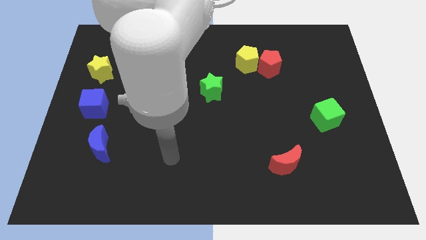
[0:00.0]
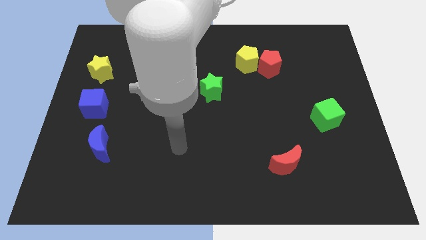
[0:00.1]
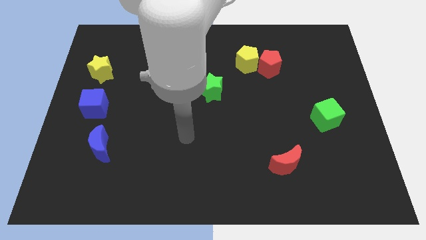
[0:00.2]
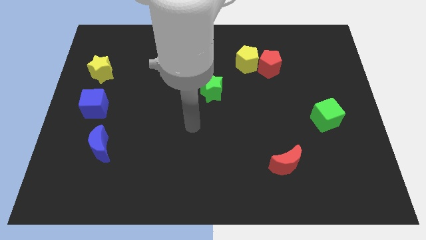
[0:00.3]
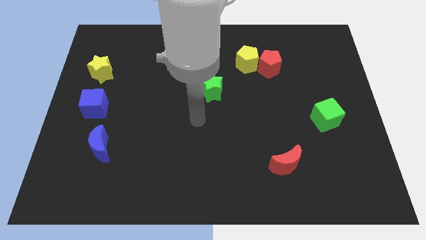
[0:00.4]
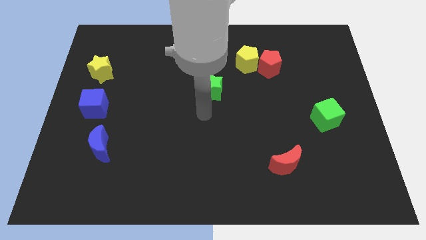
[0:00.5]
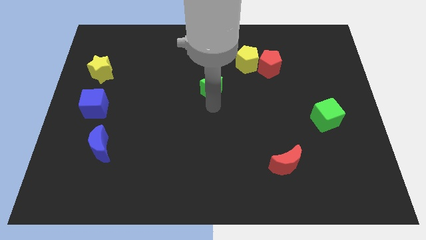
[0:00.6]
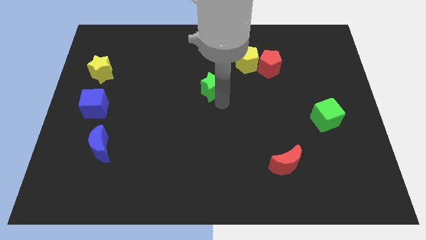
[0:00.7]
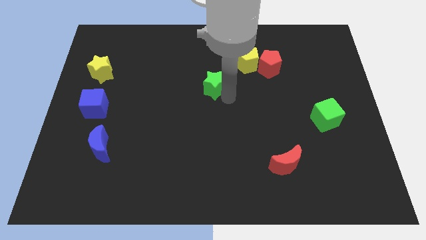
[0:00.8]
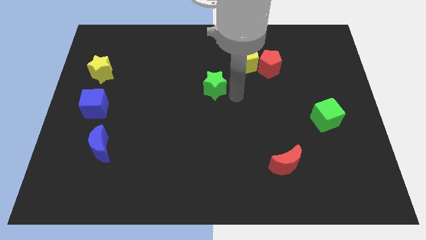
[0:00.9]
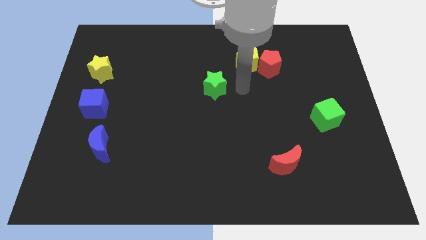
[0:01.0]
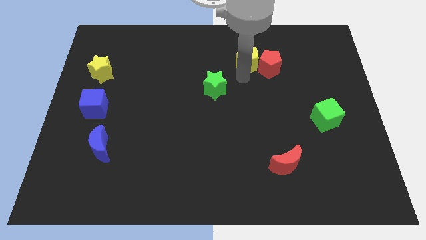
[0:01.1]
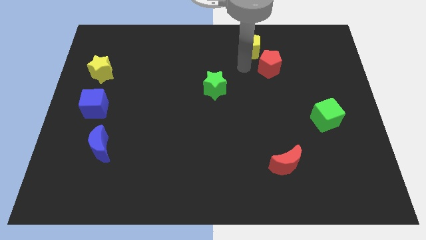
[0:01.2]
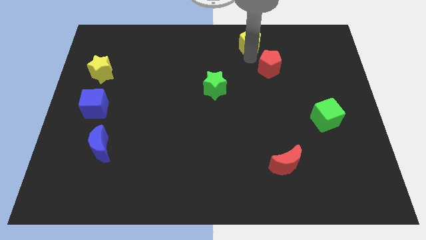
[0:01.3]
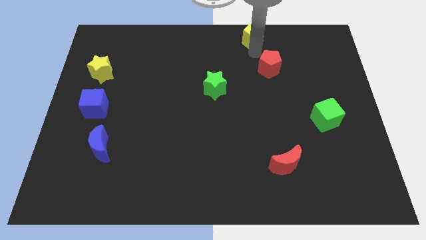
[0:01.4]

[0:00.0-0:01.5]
pull the red pentagon apart from the yellow pentagon

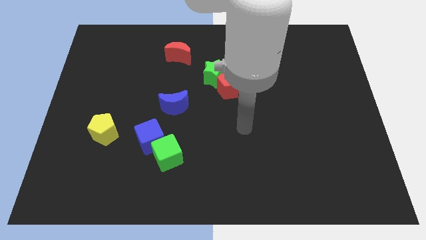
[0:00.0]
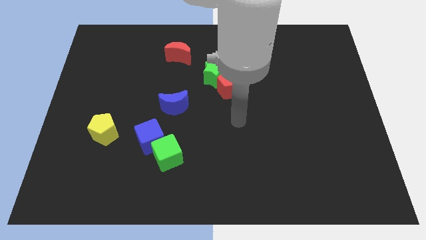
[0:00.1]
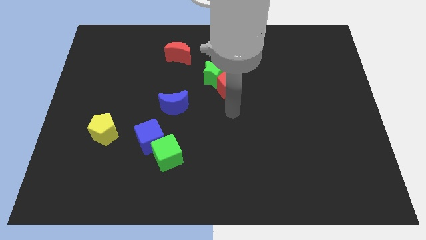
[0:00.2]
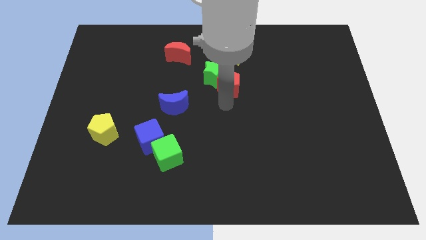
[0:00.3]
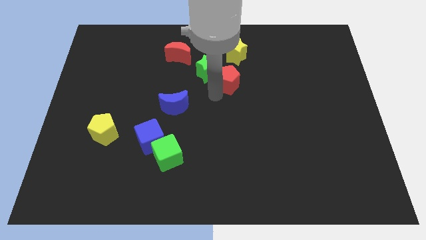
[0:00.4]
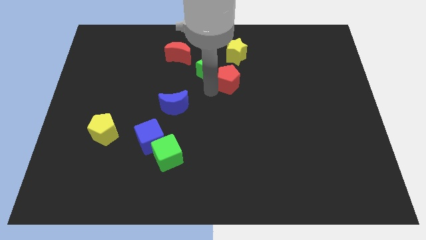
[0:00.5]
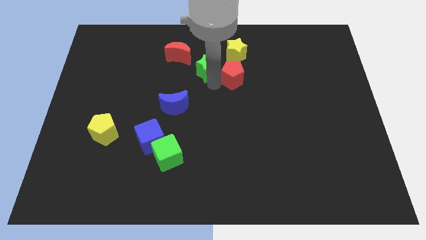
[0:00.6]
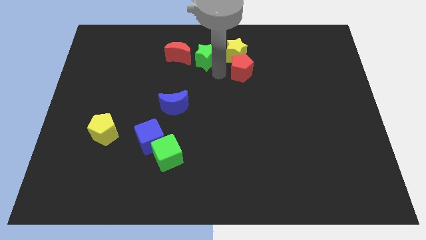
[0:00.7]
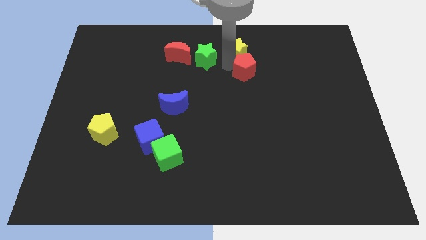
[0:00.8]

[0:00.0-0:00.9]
separate the red pentagon from the green star

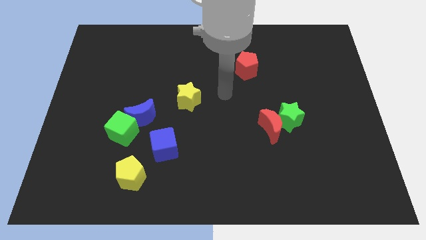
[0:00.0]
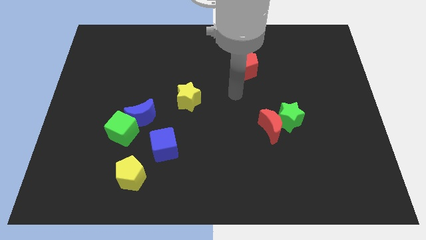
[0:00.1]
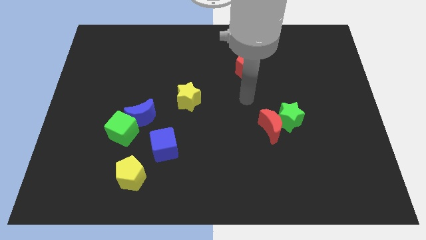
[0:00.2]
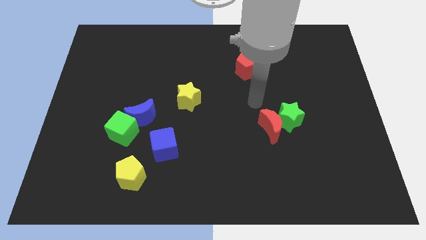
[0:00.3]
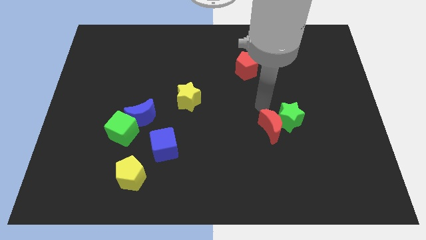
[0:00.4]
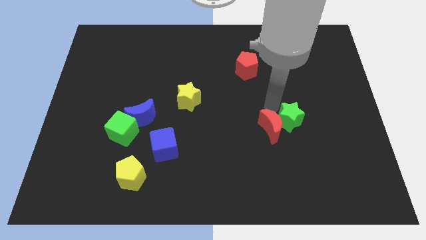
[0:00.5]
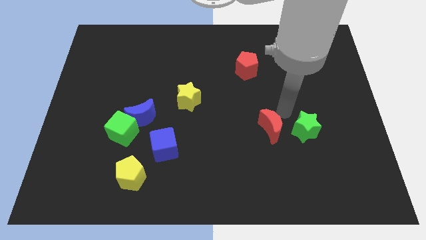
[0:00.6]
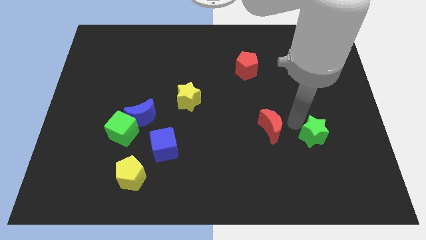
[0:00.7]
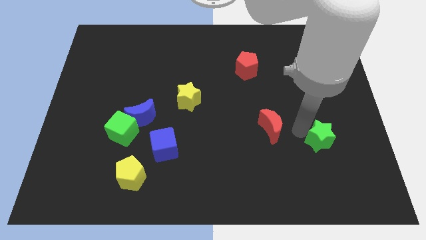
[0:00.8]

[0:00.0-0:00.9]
separate the red moon from the green star

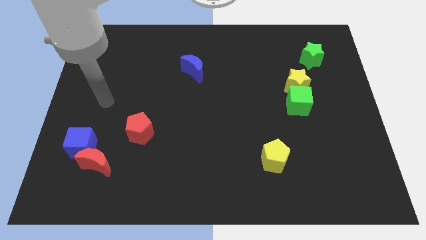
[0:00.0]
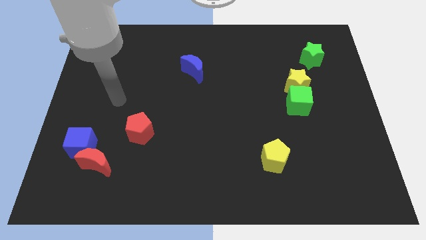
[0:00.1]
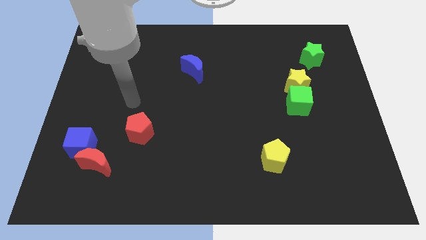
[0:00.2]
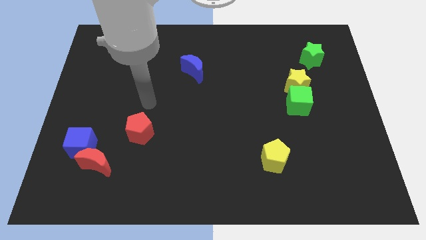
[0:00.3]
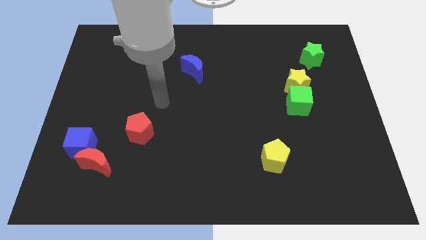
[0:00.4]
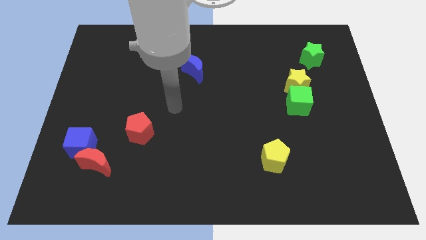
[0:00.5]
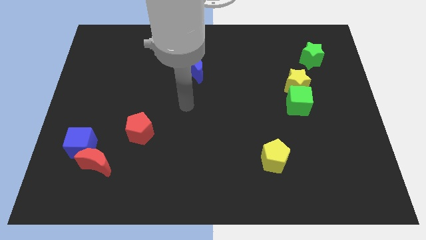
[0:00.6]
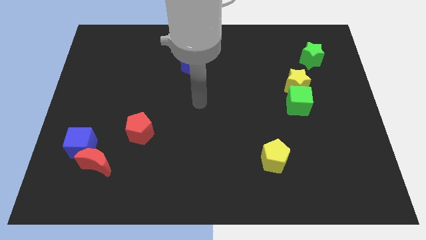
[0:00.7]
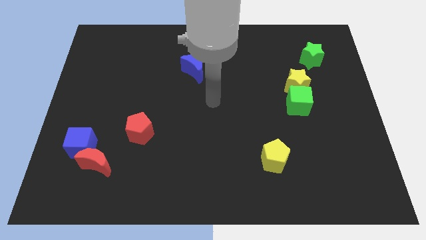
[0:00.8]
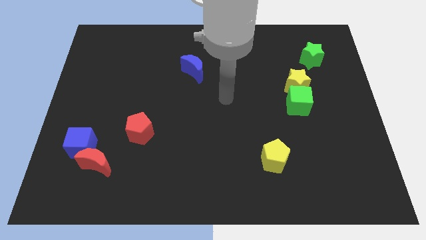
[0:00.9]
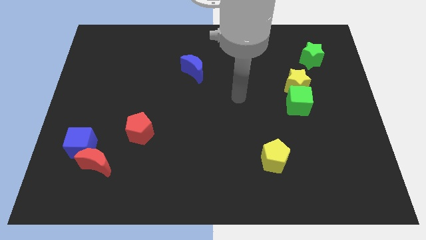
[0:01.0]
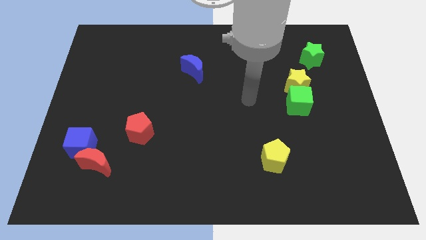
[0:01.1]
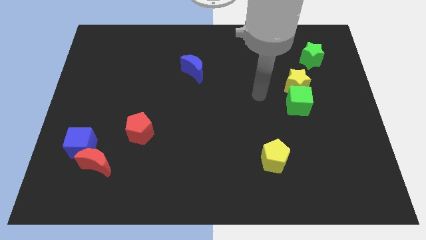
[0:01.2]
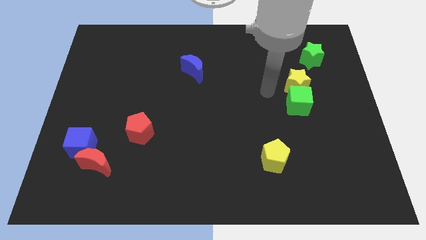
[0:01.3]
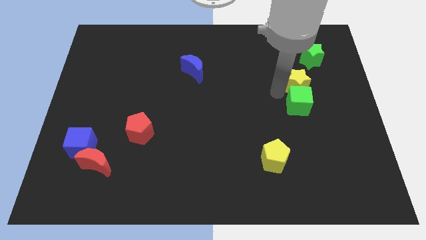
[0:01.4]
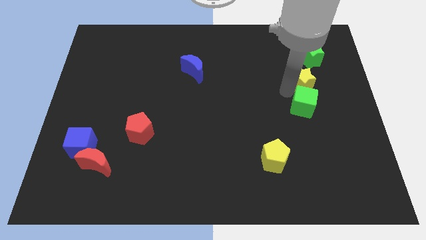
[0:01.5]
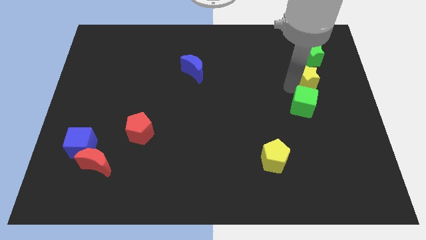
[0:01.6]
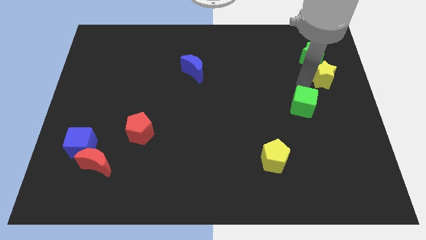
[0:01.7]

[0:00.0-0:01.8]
move the green cube away from the yellow star

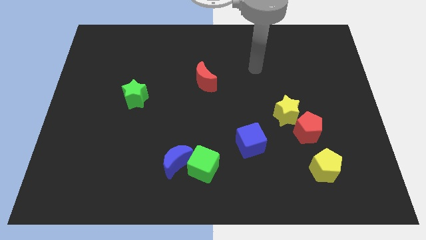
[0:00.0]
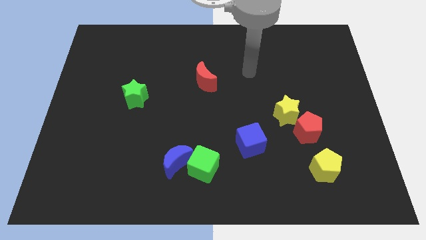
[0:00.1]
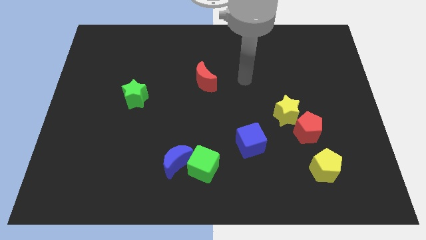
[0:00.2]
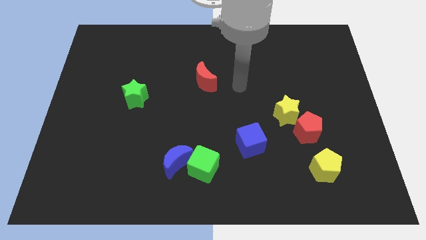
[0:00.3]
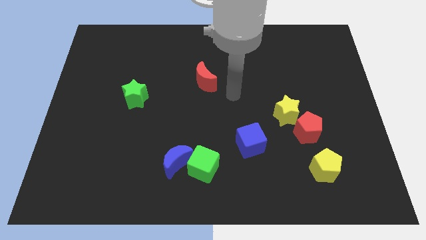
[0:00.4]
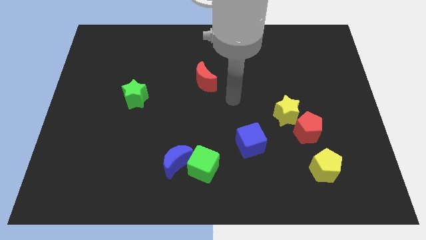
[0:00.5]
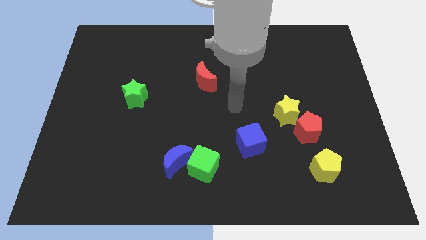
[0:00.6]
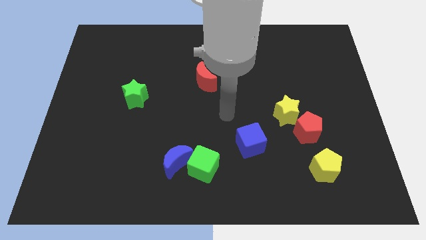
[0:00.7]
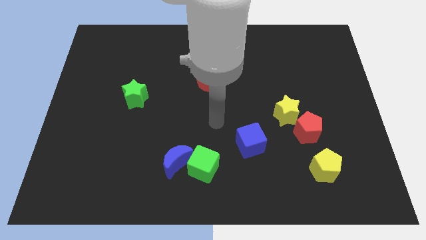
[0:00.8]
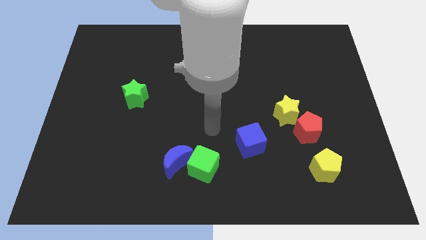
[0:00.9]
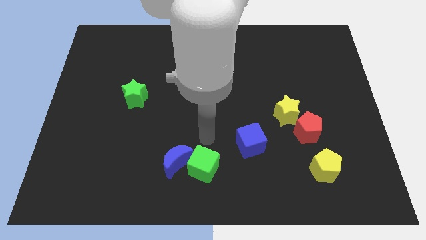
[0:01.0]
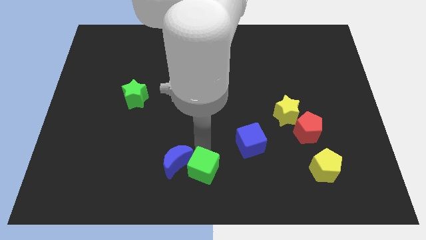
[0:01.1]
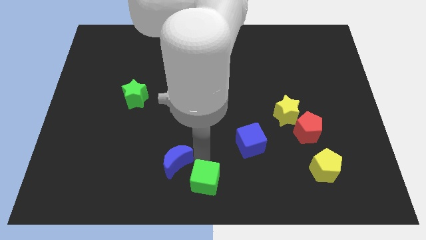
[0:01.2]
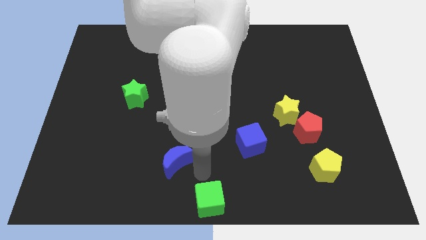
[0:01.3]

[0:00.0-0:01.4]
separate the blue moon from the green cube

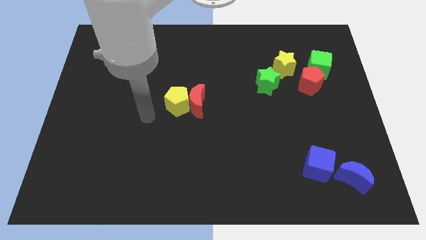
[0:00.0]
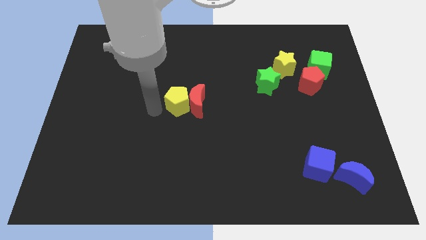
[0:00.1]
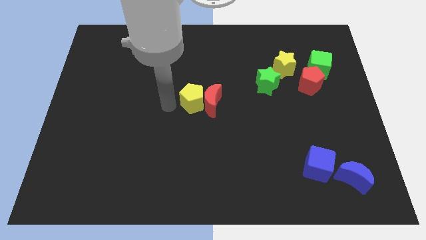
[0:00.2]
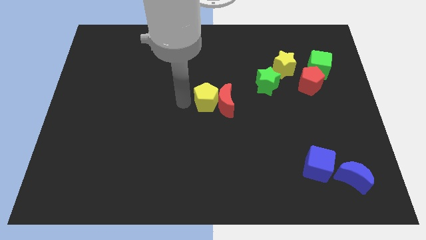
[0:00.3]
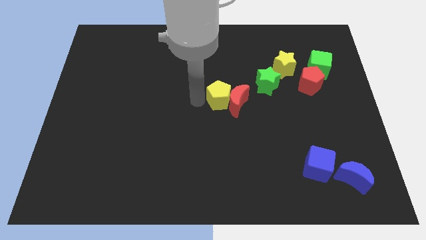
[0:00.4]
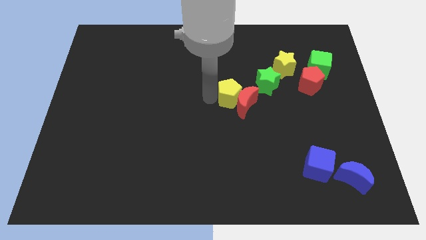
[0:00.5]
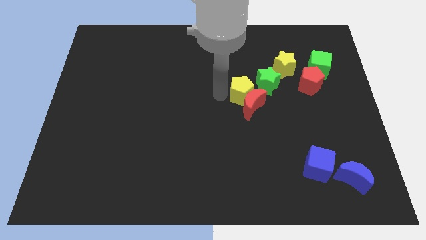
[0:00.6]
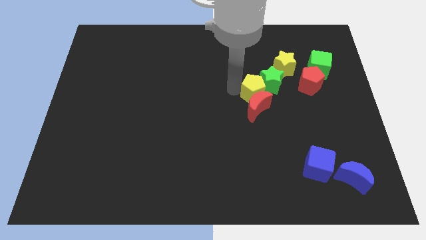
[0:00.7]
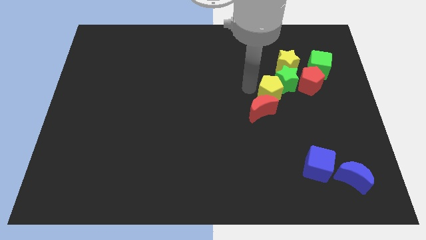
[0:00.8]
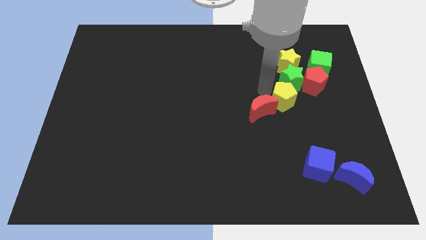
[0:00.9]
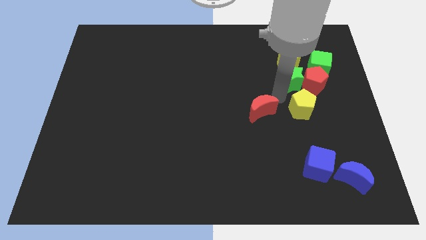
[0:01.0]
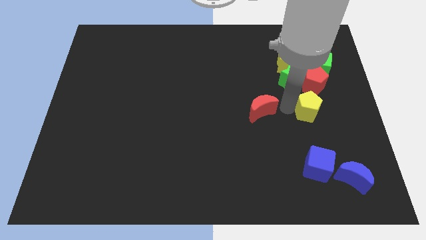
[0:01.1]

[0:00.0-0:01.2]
move the red moon away from the yellow pentagon

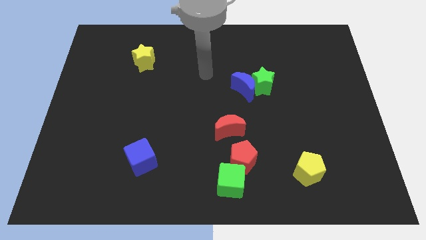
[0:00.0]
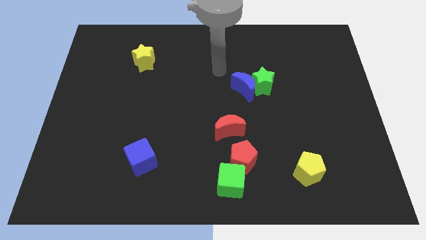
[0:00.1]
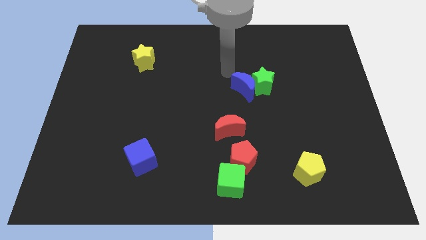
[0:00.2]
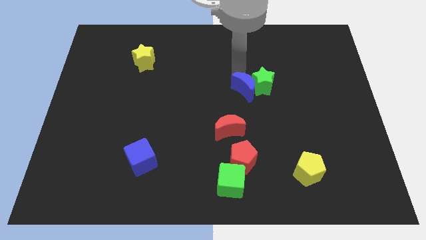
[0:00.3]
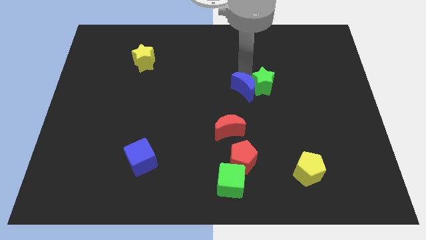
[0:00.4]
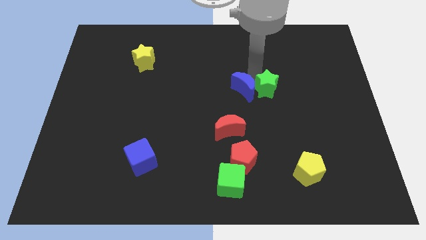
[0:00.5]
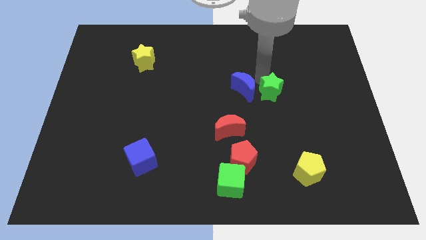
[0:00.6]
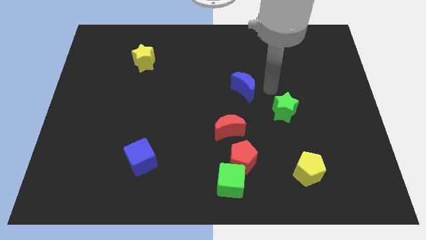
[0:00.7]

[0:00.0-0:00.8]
move the blue moon away from the green star

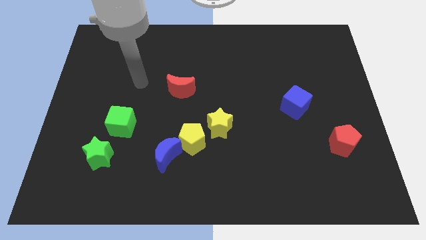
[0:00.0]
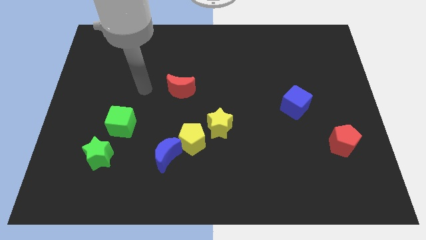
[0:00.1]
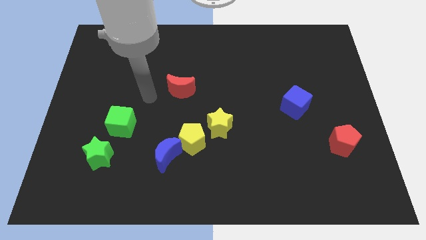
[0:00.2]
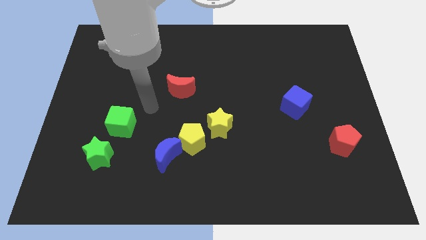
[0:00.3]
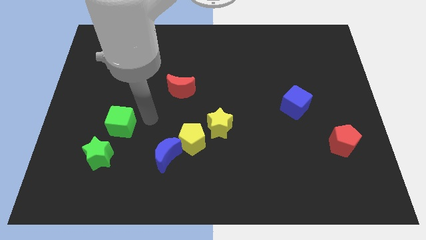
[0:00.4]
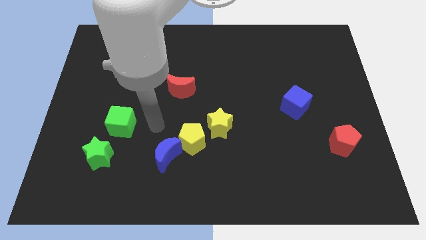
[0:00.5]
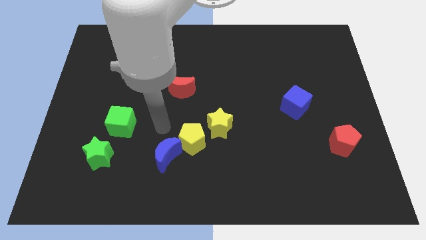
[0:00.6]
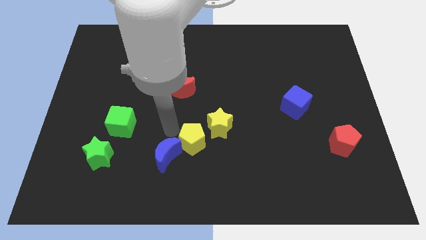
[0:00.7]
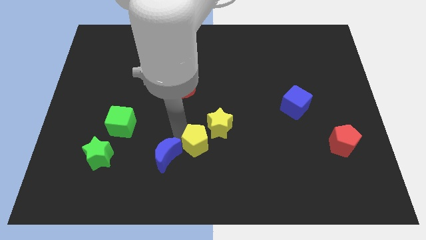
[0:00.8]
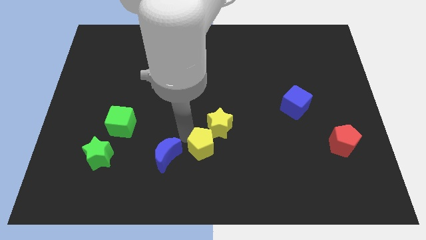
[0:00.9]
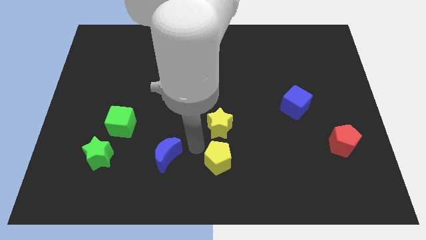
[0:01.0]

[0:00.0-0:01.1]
move the blue moon away from the yellow pentagon
